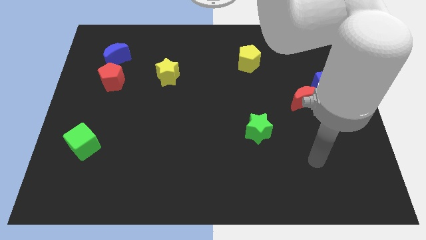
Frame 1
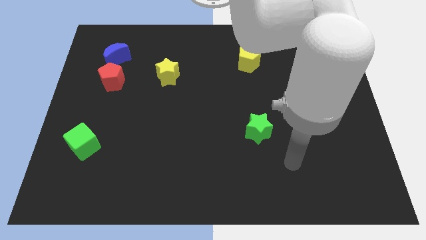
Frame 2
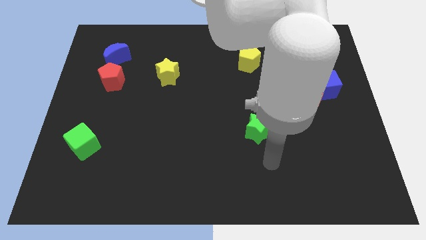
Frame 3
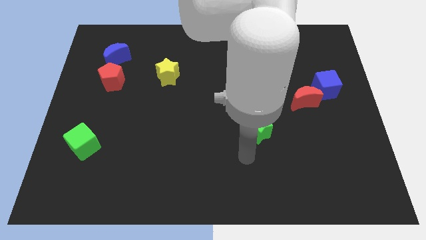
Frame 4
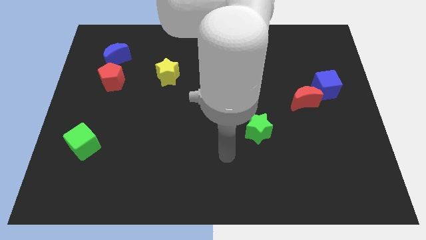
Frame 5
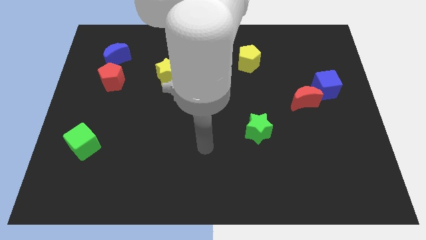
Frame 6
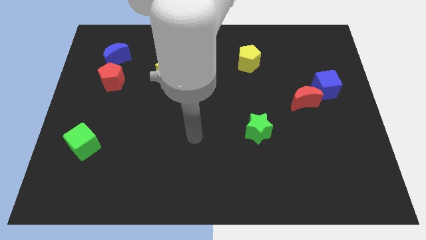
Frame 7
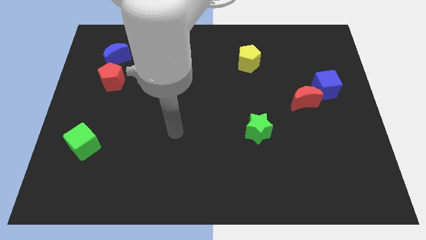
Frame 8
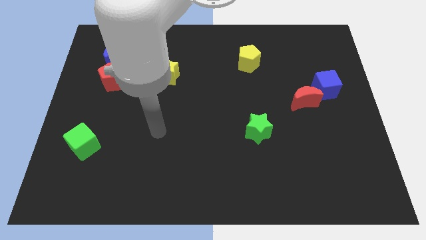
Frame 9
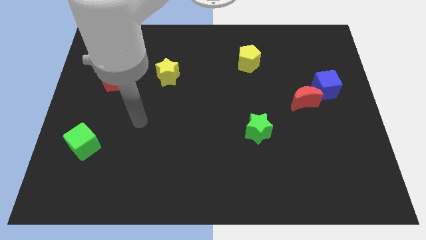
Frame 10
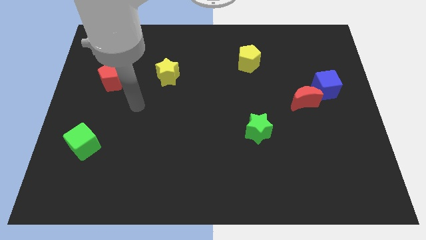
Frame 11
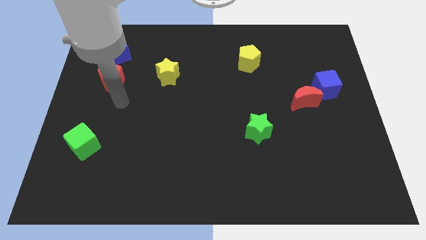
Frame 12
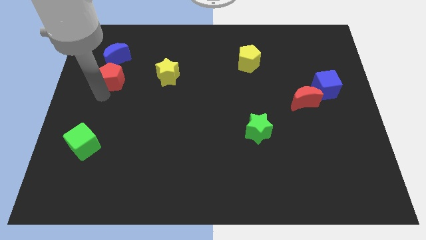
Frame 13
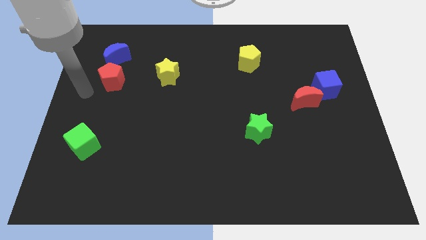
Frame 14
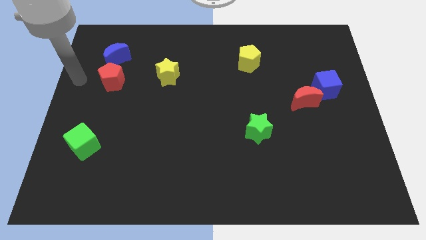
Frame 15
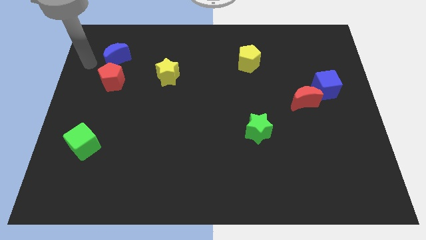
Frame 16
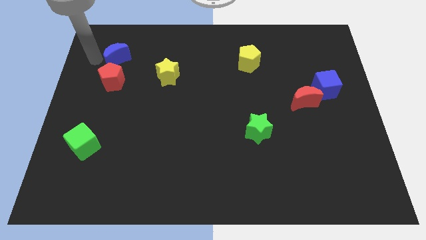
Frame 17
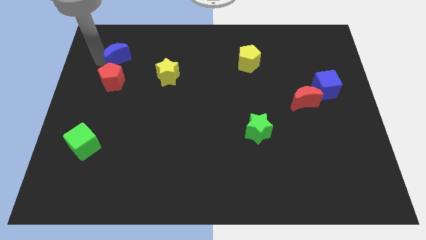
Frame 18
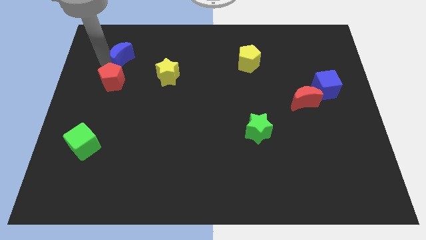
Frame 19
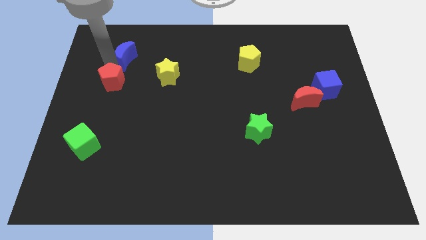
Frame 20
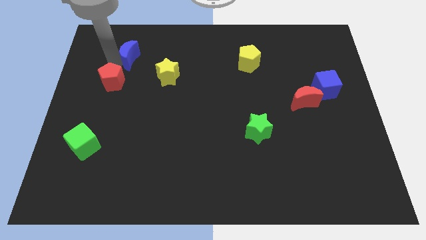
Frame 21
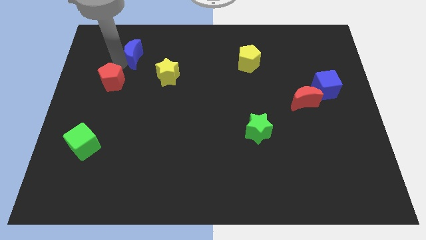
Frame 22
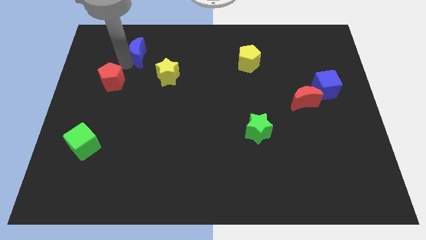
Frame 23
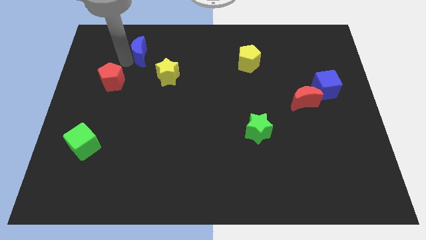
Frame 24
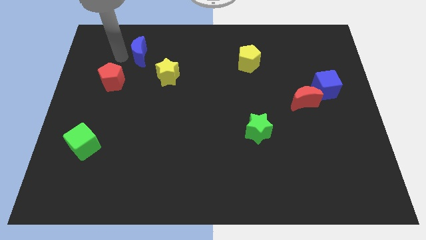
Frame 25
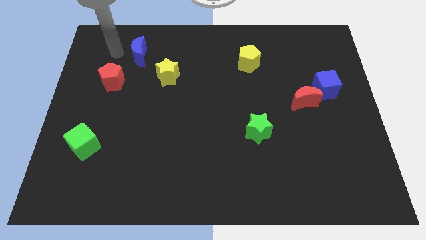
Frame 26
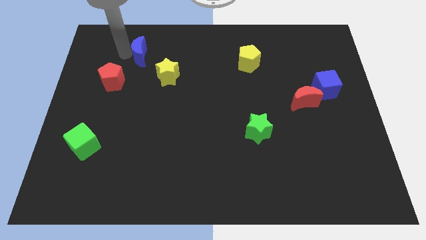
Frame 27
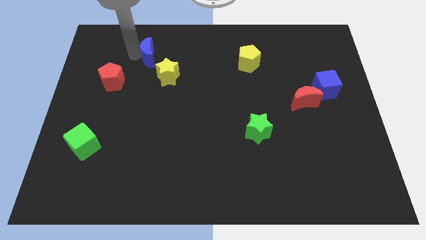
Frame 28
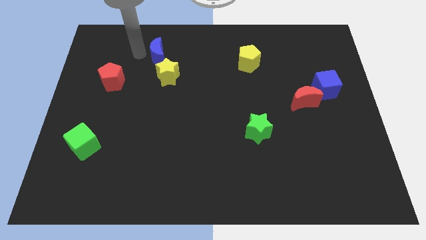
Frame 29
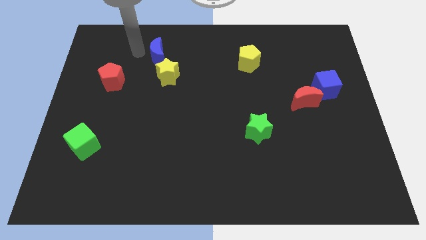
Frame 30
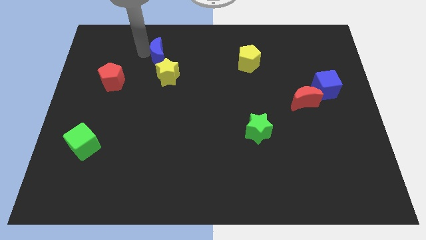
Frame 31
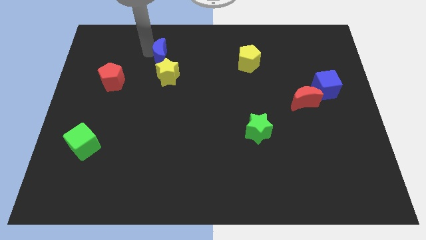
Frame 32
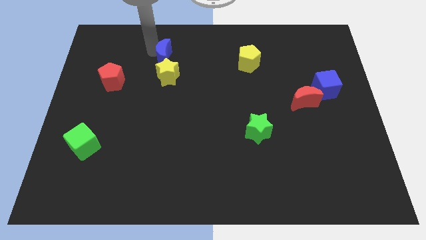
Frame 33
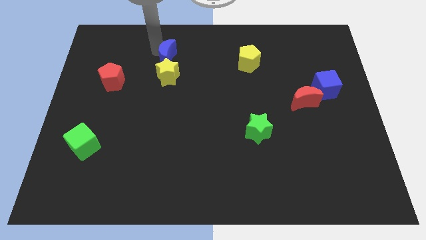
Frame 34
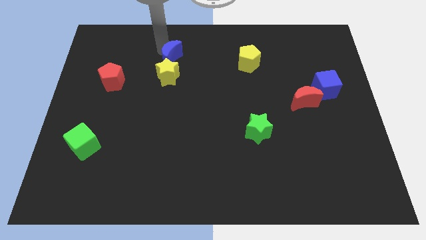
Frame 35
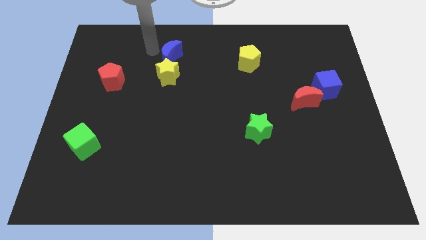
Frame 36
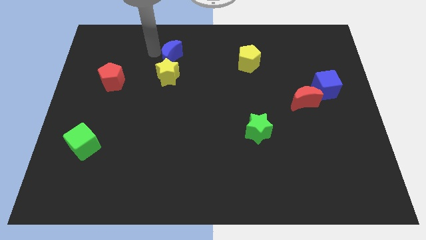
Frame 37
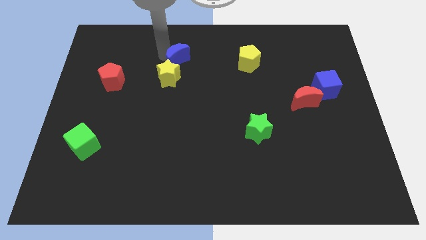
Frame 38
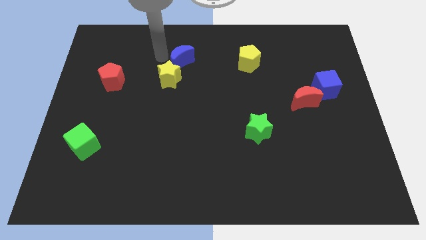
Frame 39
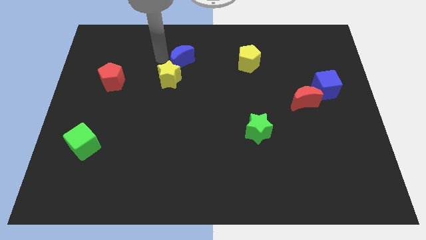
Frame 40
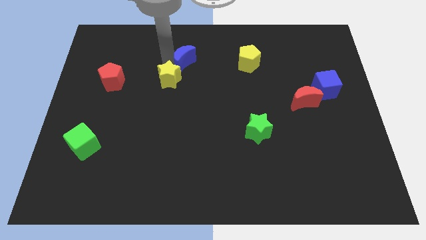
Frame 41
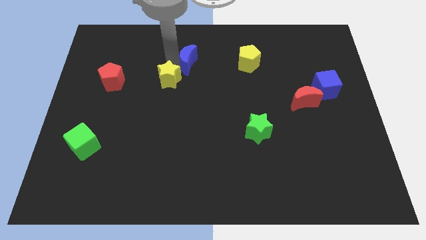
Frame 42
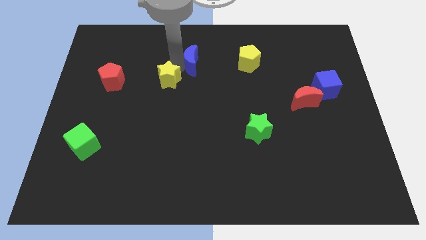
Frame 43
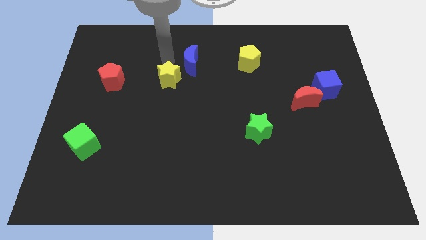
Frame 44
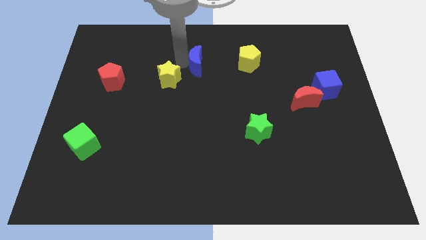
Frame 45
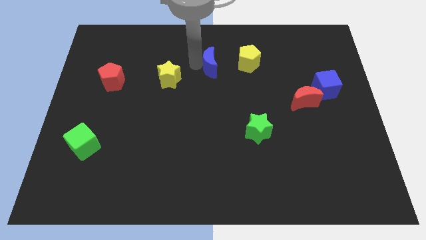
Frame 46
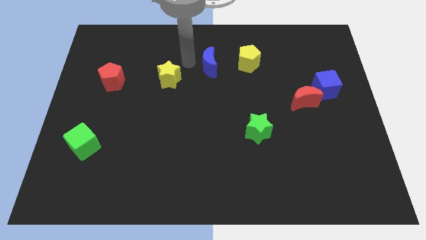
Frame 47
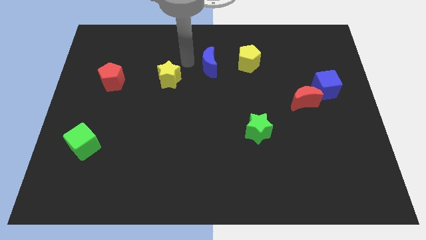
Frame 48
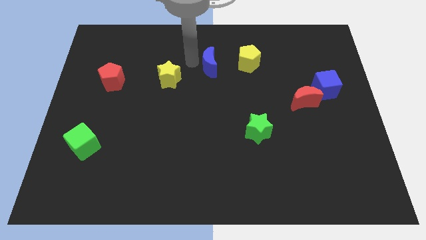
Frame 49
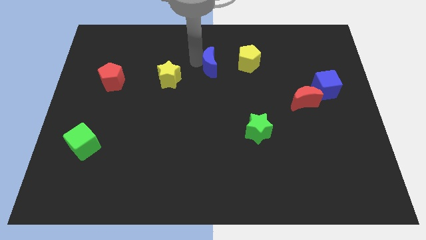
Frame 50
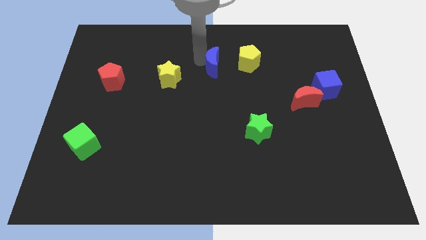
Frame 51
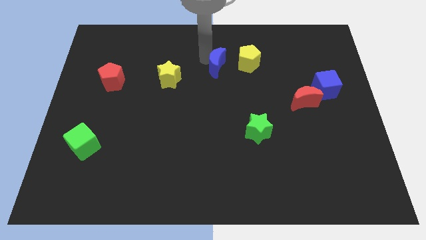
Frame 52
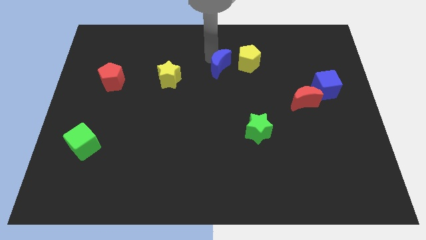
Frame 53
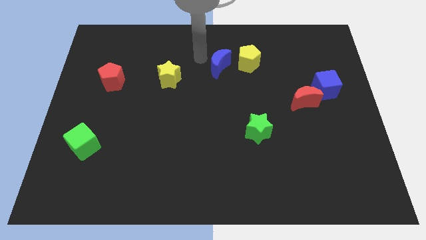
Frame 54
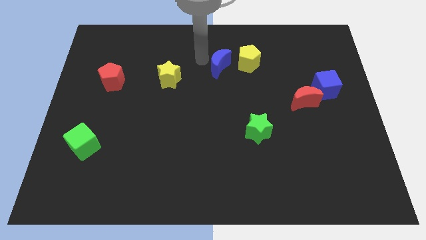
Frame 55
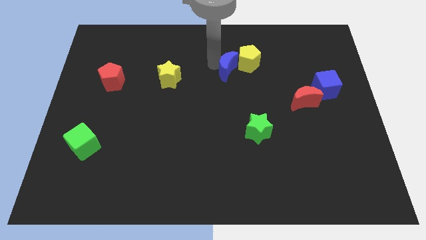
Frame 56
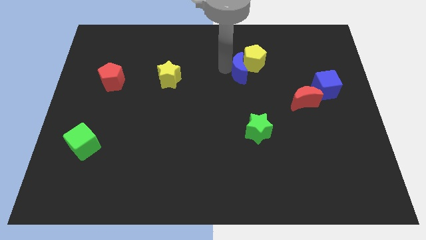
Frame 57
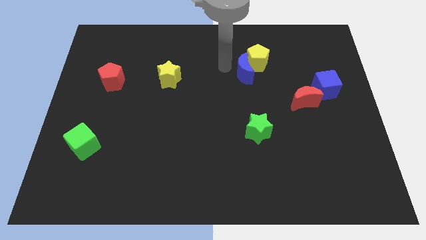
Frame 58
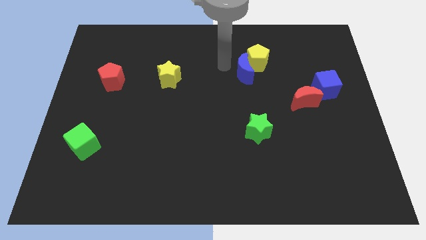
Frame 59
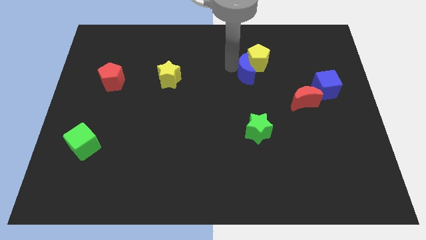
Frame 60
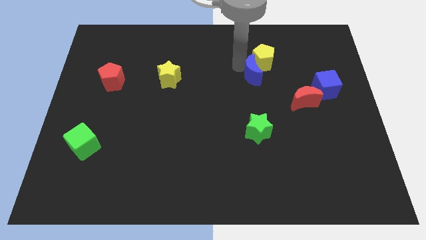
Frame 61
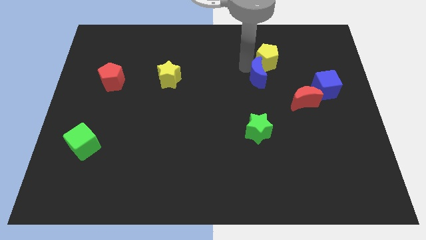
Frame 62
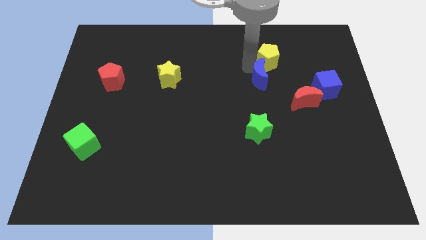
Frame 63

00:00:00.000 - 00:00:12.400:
put the blue moon to the top left of the red moon
